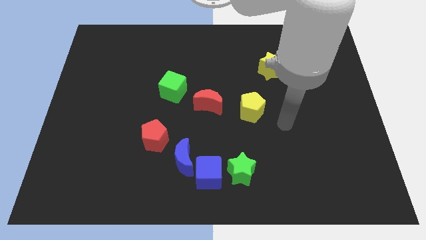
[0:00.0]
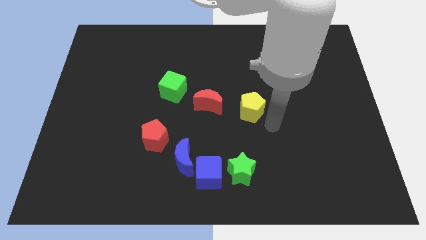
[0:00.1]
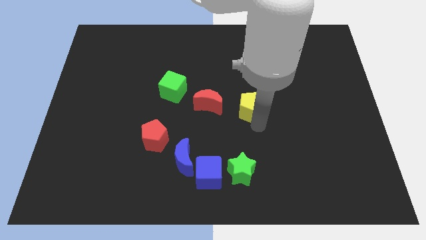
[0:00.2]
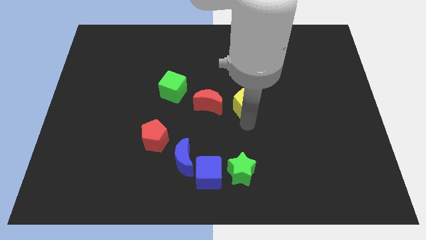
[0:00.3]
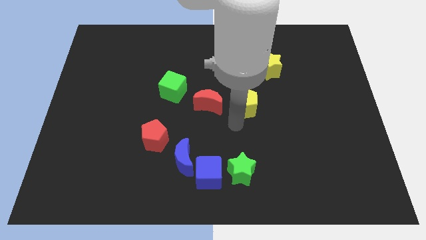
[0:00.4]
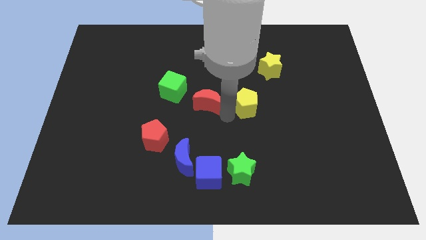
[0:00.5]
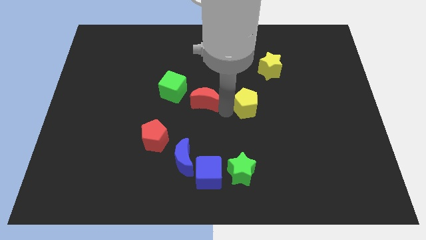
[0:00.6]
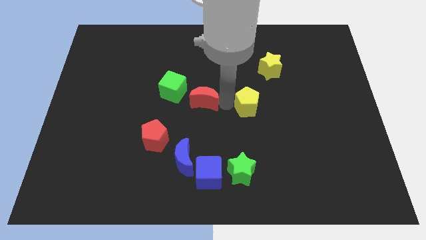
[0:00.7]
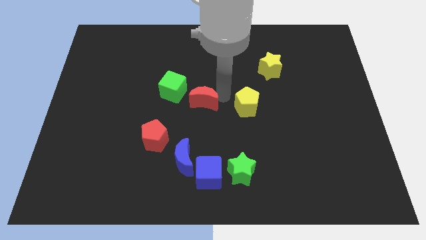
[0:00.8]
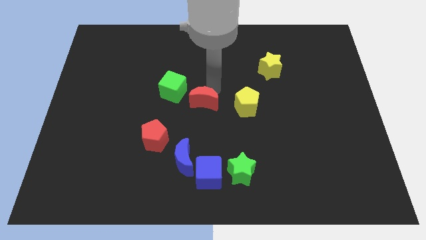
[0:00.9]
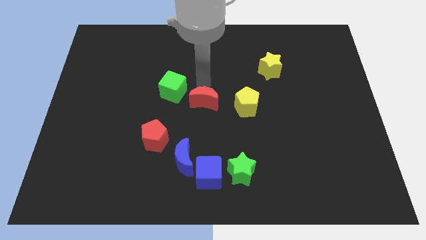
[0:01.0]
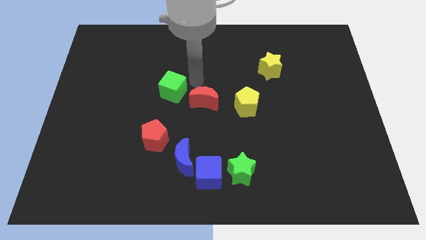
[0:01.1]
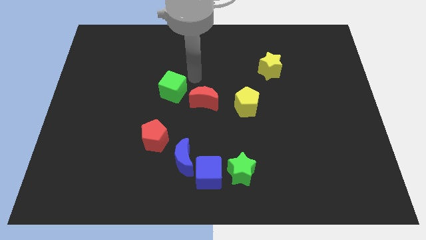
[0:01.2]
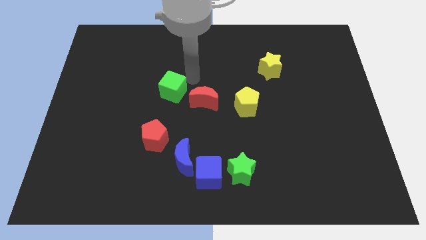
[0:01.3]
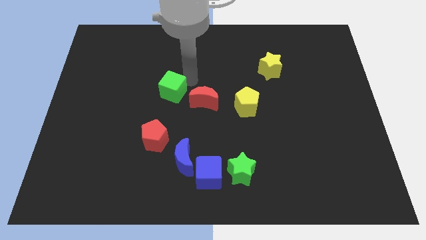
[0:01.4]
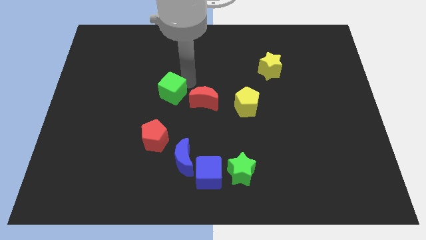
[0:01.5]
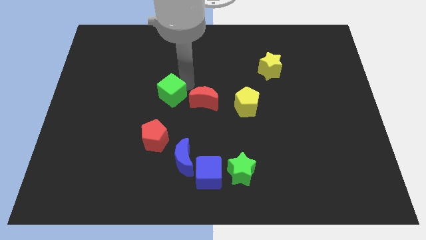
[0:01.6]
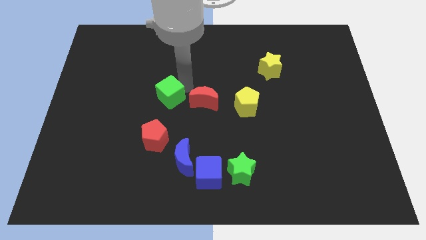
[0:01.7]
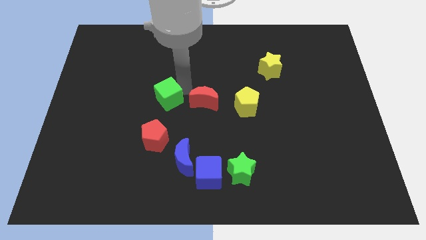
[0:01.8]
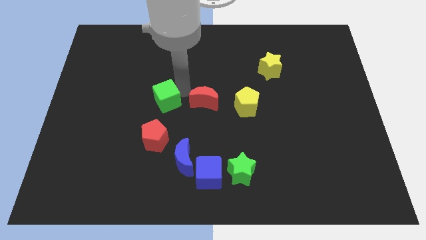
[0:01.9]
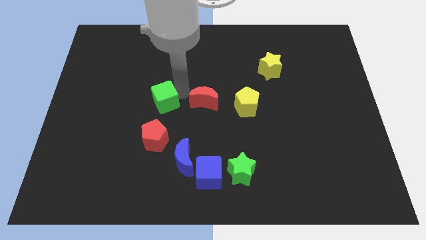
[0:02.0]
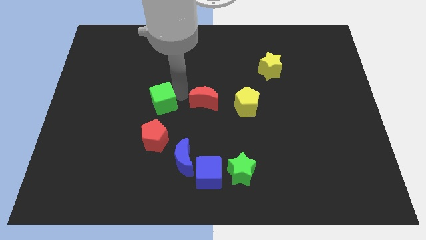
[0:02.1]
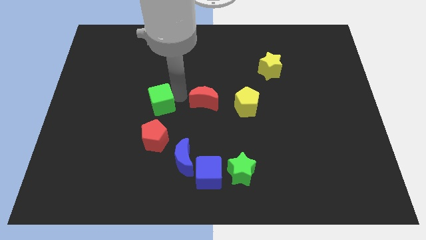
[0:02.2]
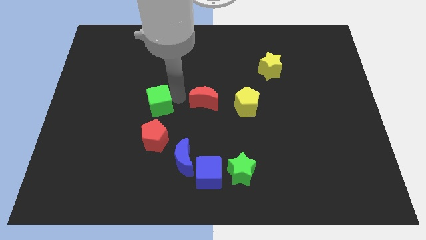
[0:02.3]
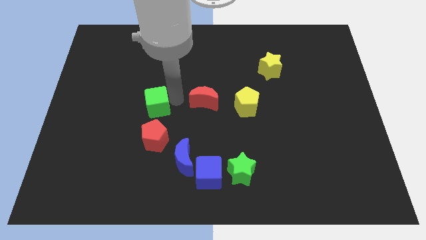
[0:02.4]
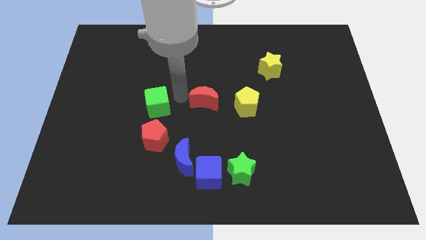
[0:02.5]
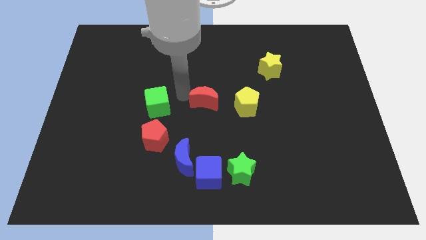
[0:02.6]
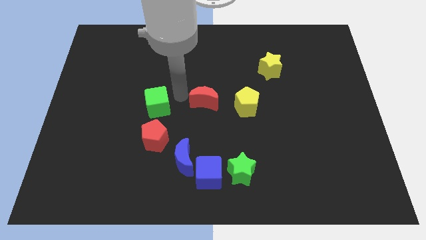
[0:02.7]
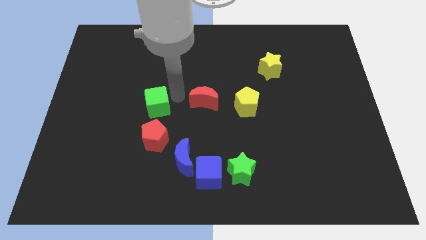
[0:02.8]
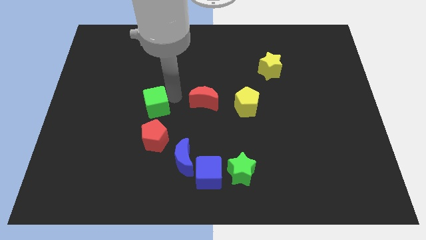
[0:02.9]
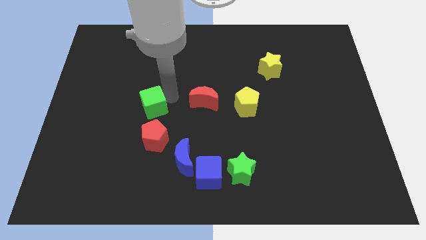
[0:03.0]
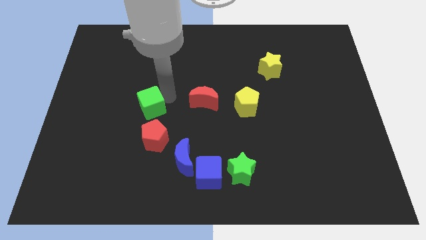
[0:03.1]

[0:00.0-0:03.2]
push the green cube downwards and left a bit

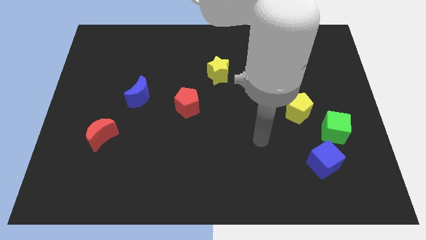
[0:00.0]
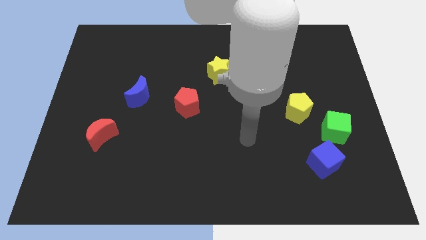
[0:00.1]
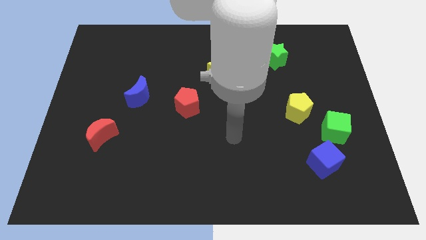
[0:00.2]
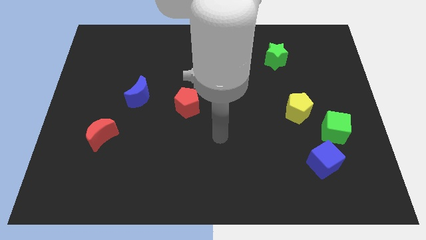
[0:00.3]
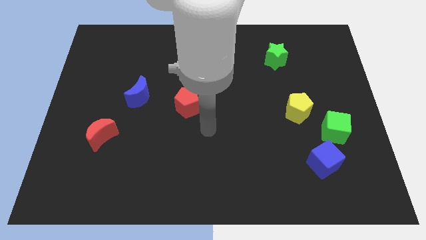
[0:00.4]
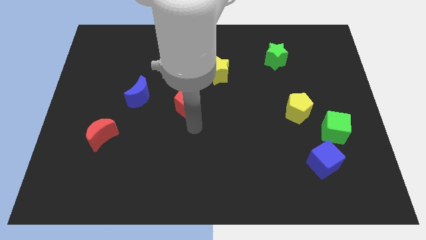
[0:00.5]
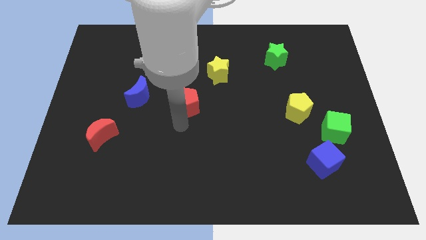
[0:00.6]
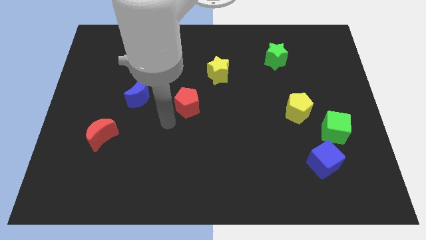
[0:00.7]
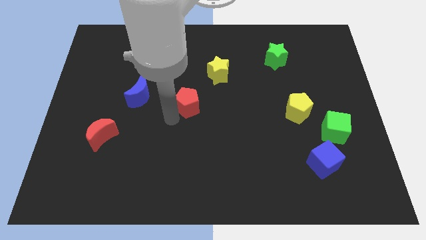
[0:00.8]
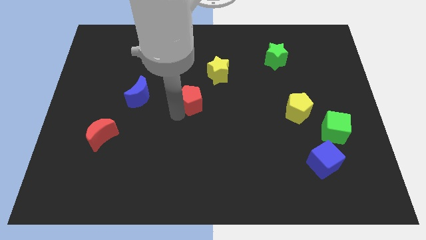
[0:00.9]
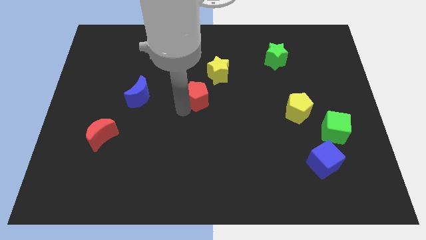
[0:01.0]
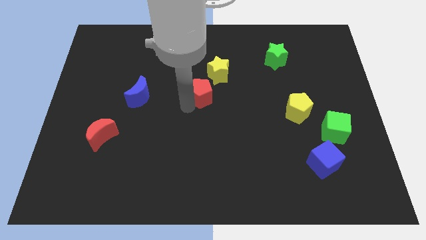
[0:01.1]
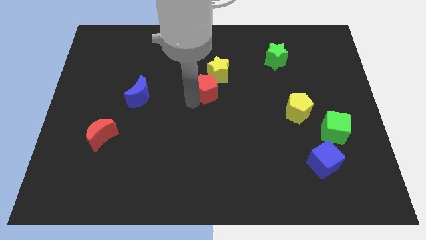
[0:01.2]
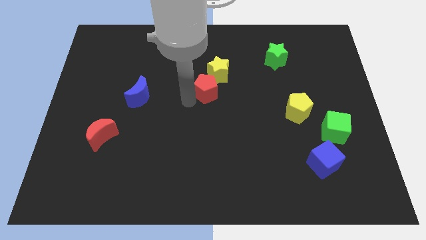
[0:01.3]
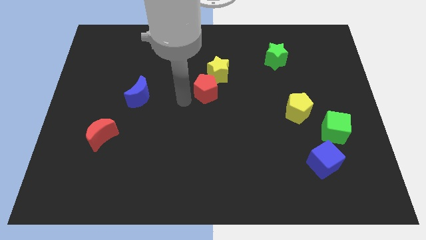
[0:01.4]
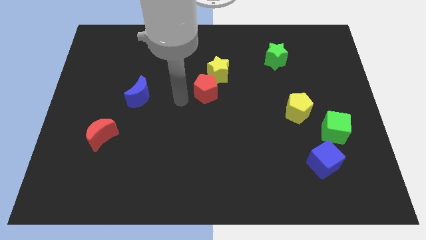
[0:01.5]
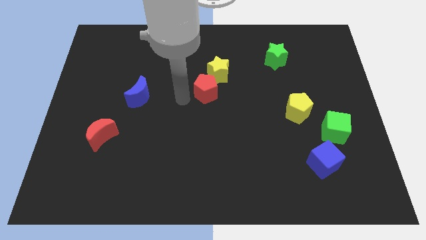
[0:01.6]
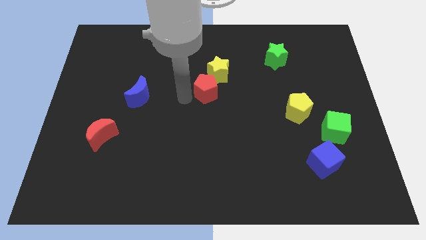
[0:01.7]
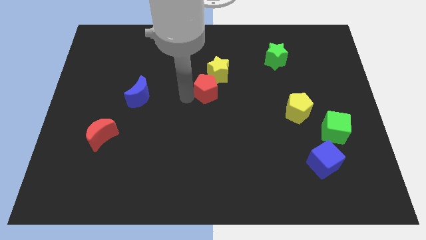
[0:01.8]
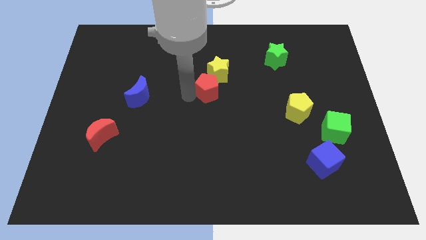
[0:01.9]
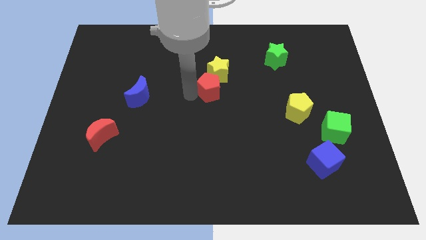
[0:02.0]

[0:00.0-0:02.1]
move the red pentagon up and right diagonally a bit

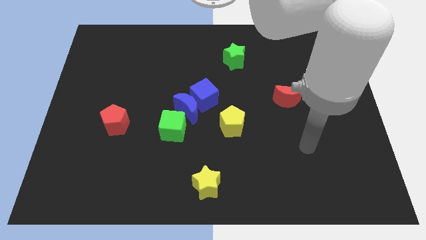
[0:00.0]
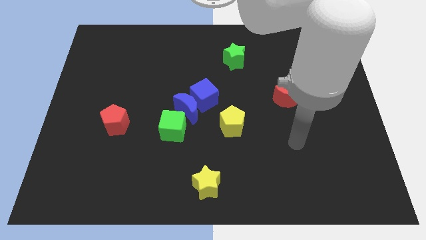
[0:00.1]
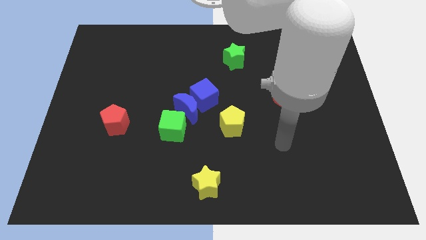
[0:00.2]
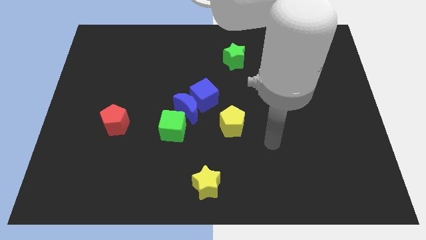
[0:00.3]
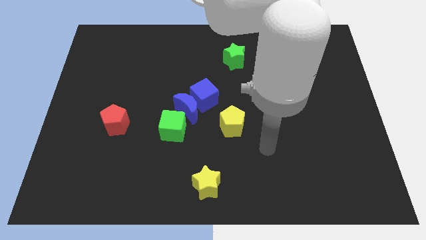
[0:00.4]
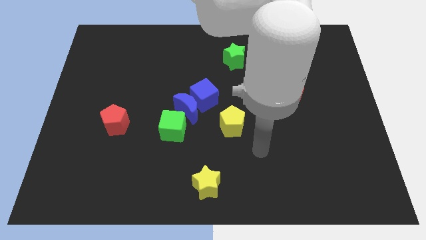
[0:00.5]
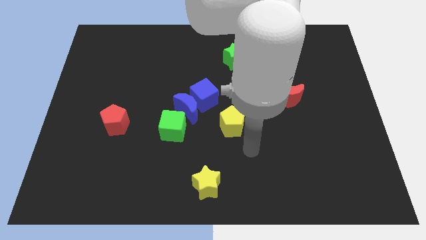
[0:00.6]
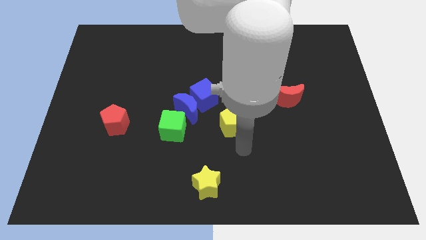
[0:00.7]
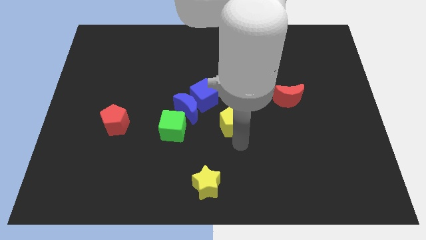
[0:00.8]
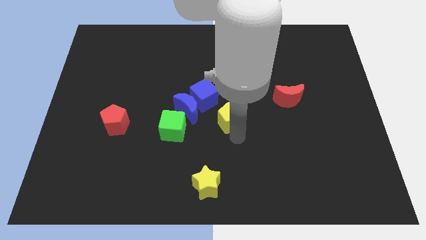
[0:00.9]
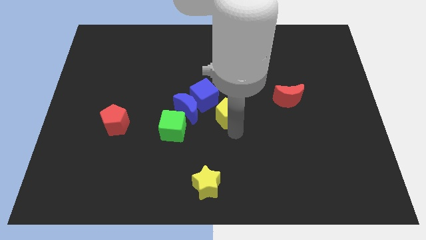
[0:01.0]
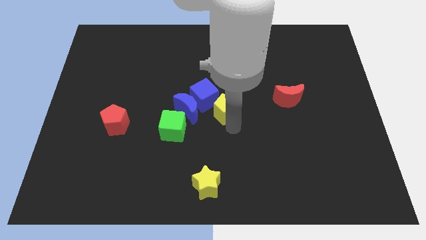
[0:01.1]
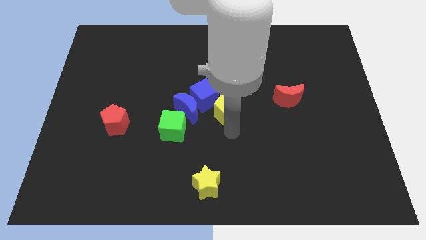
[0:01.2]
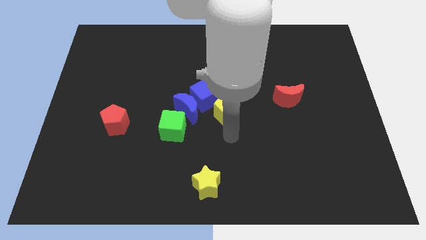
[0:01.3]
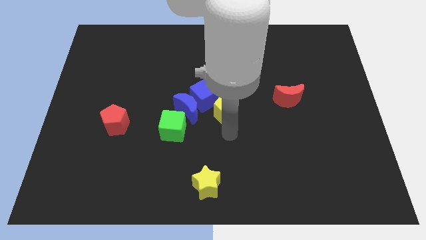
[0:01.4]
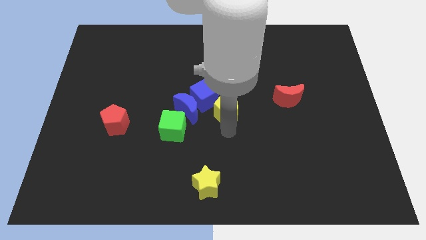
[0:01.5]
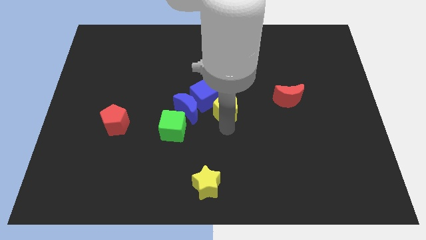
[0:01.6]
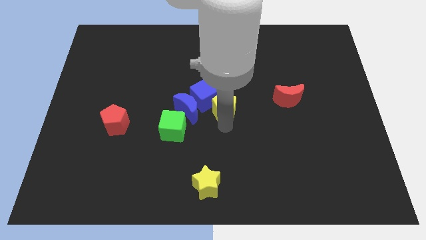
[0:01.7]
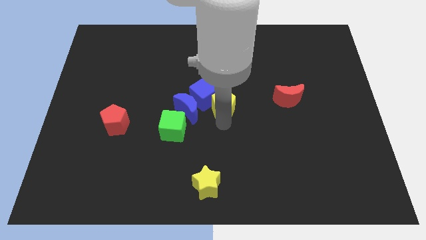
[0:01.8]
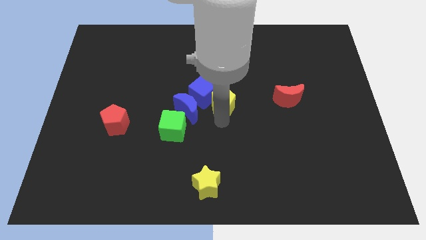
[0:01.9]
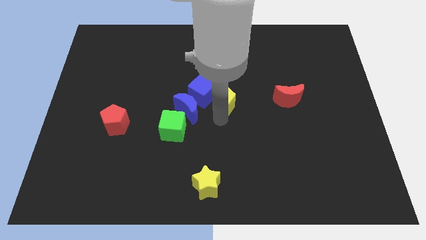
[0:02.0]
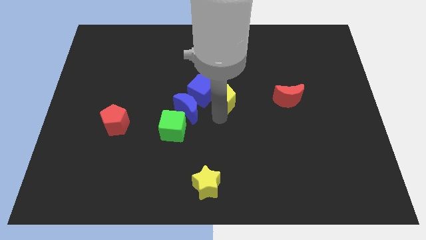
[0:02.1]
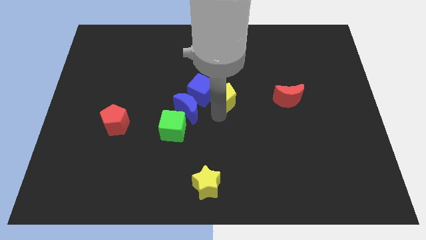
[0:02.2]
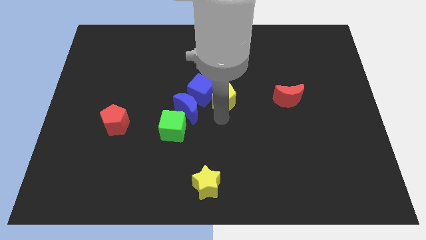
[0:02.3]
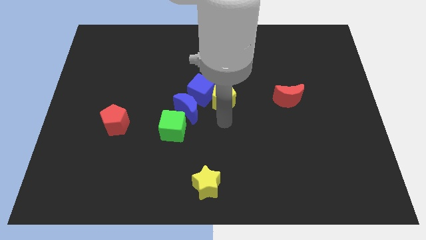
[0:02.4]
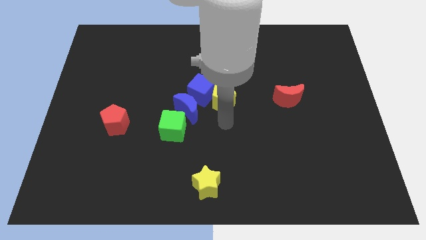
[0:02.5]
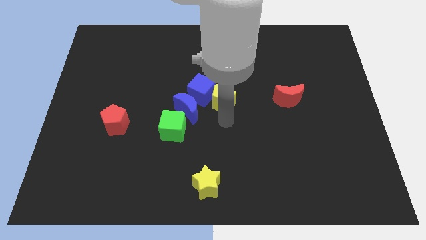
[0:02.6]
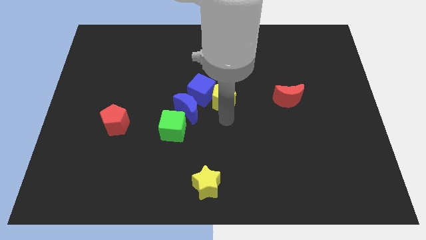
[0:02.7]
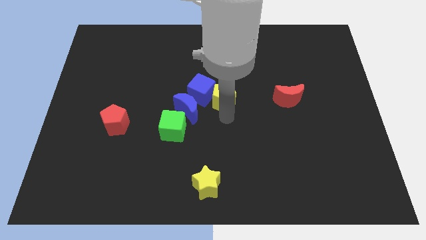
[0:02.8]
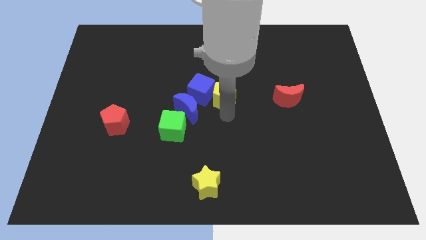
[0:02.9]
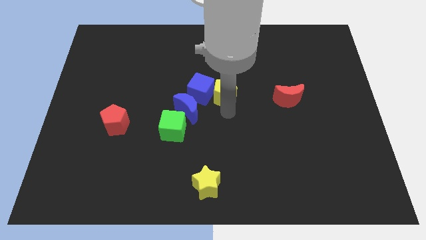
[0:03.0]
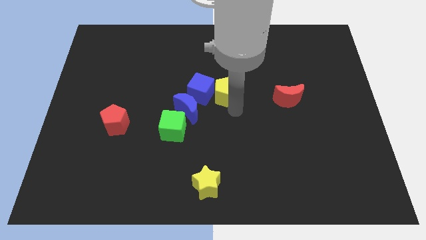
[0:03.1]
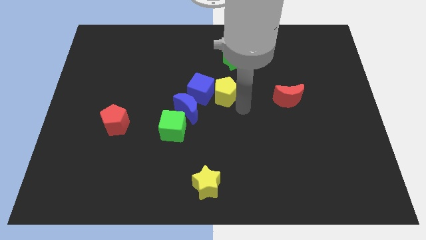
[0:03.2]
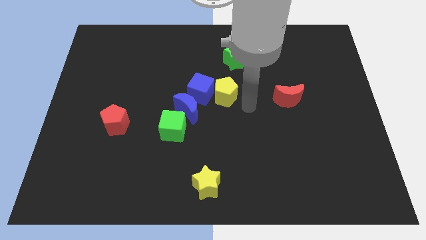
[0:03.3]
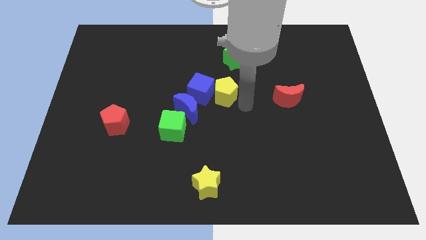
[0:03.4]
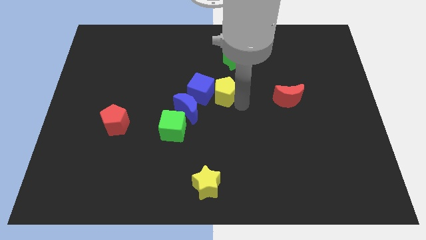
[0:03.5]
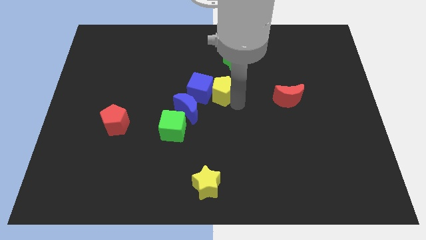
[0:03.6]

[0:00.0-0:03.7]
move the yellow pentagon a bit up and to the left diagonally
